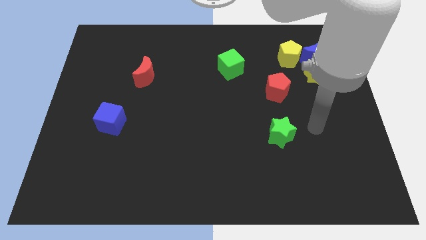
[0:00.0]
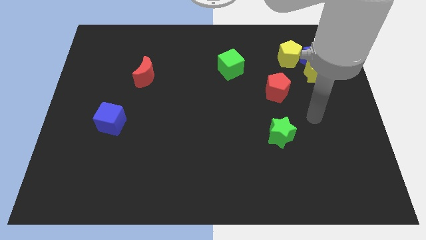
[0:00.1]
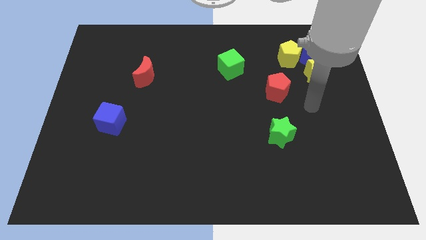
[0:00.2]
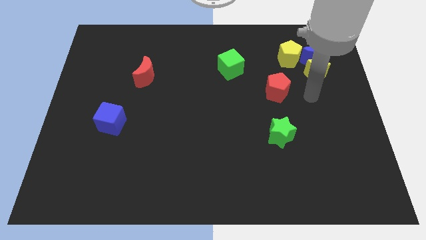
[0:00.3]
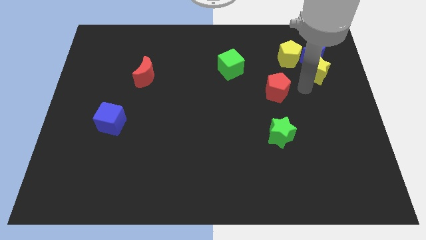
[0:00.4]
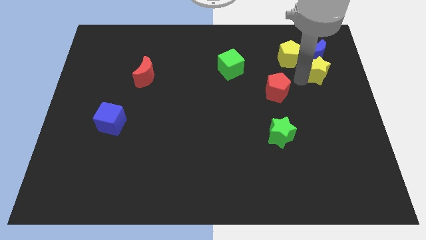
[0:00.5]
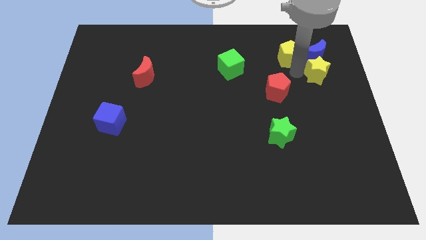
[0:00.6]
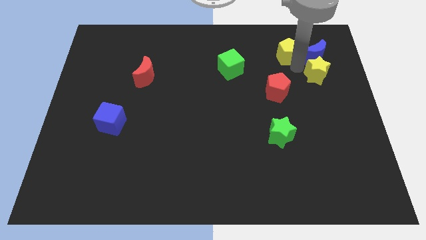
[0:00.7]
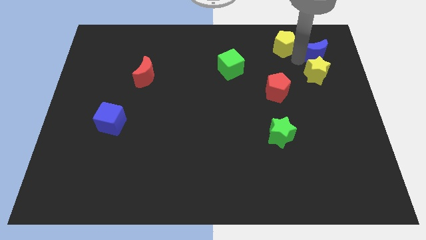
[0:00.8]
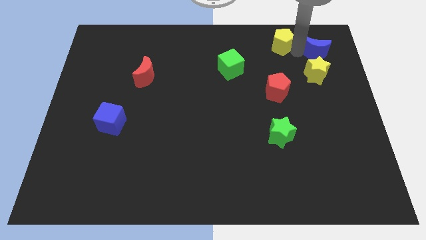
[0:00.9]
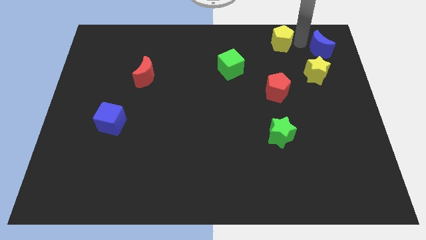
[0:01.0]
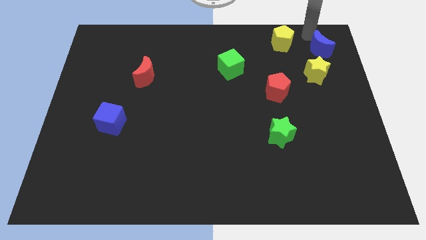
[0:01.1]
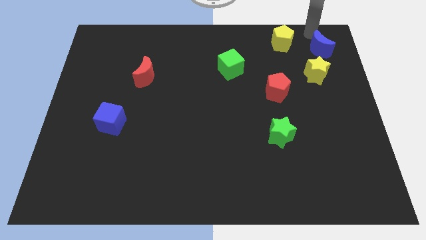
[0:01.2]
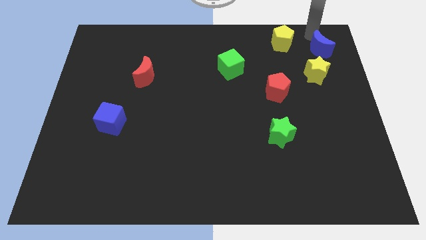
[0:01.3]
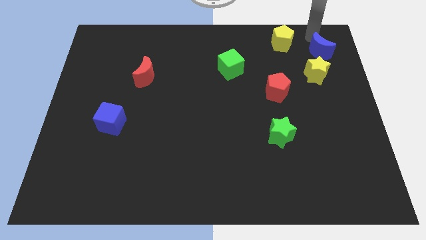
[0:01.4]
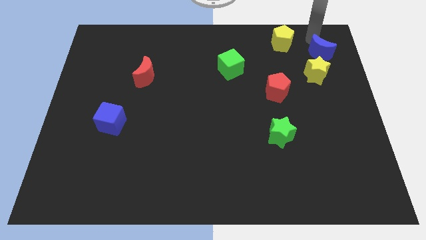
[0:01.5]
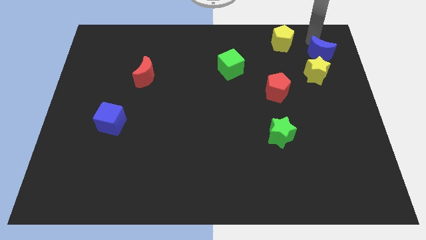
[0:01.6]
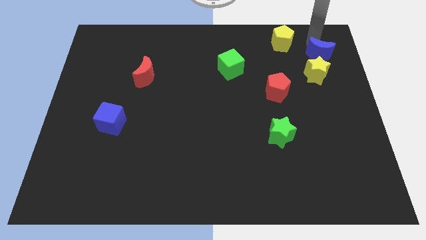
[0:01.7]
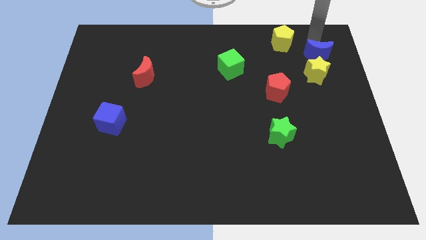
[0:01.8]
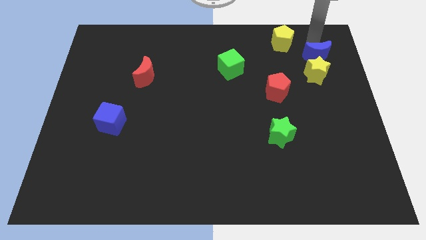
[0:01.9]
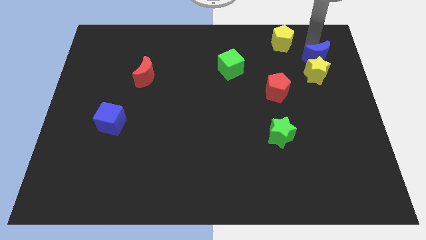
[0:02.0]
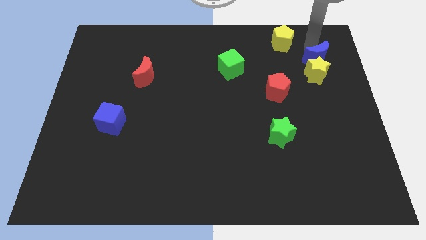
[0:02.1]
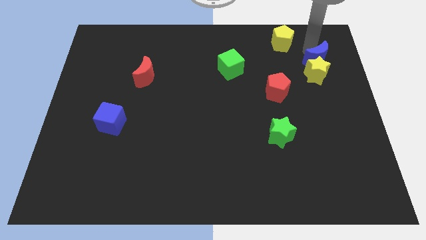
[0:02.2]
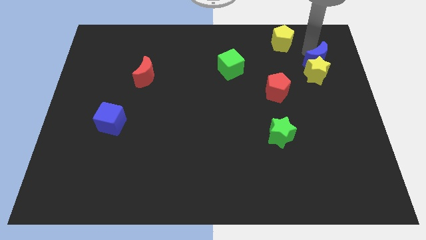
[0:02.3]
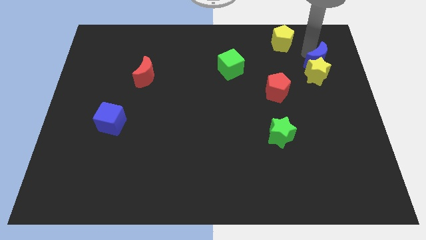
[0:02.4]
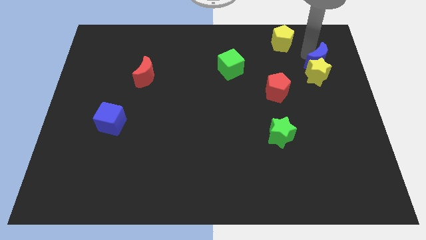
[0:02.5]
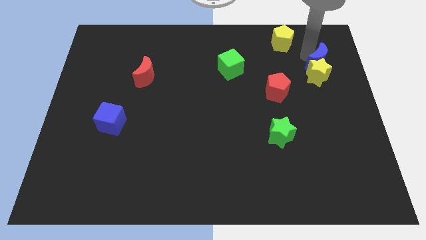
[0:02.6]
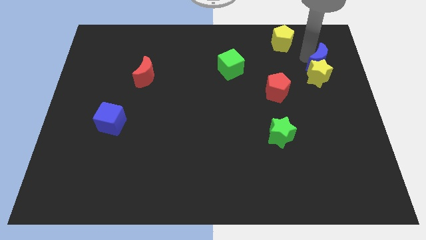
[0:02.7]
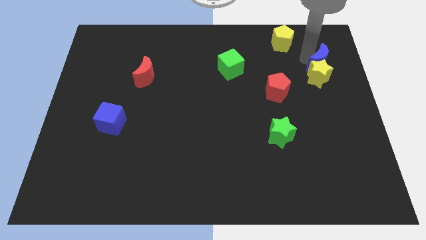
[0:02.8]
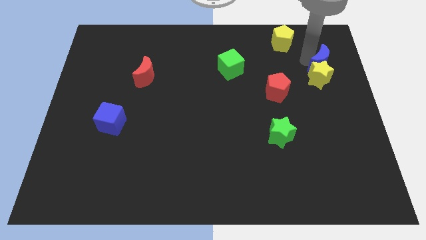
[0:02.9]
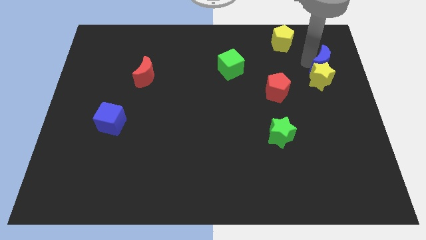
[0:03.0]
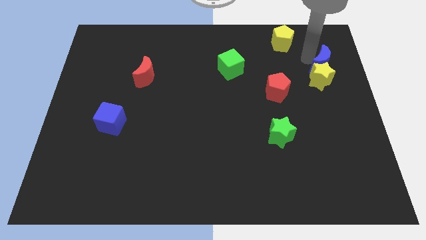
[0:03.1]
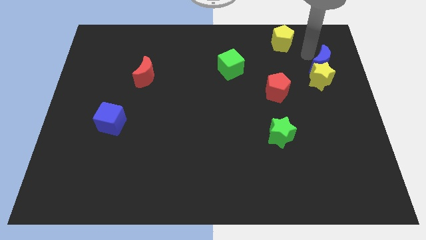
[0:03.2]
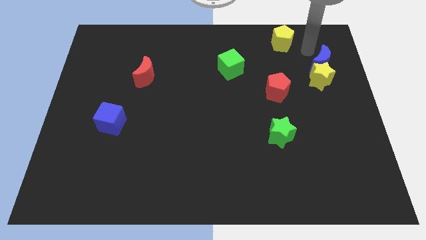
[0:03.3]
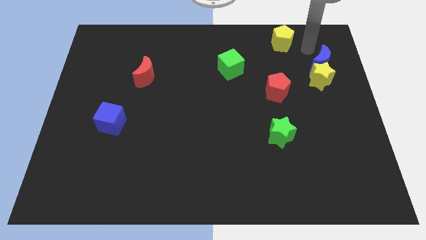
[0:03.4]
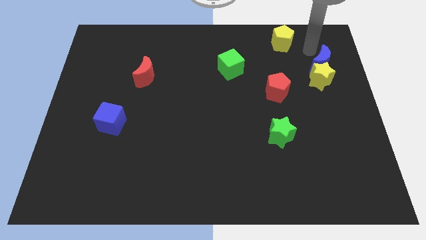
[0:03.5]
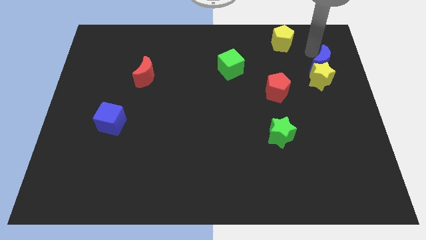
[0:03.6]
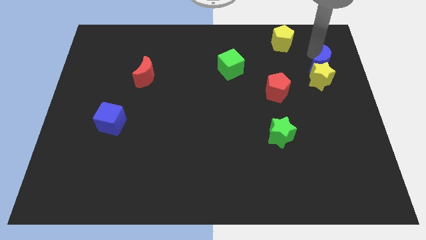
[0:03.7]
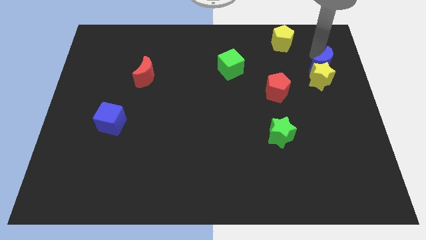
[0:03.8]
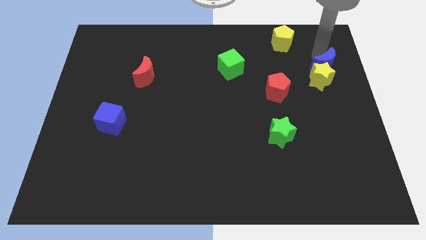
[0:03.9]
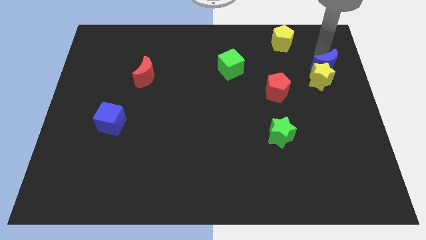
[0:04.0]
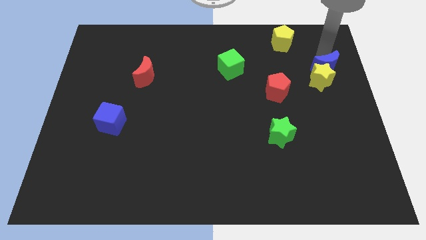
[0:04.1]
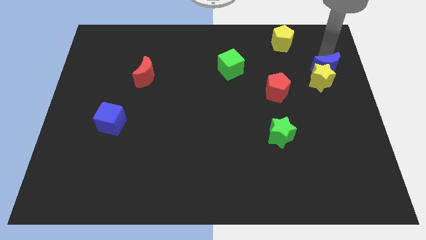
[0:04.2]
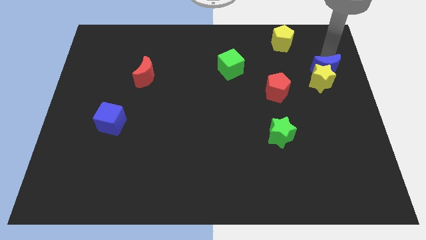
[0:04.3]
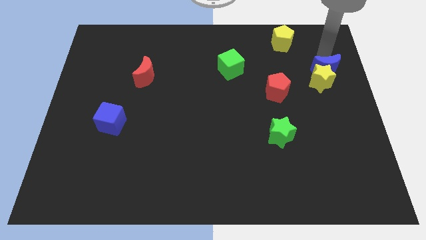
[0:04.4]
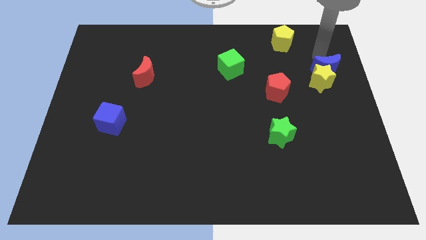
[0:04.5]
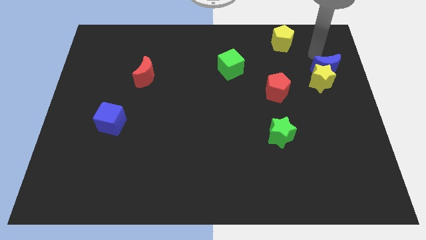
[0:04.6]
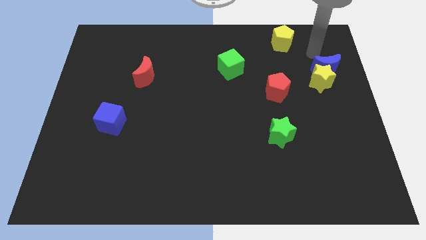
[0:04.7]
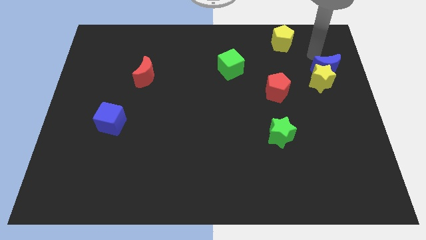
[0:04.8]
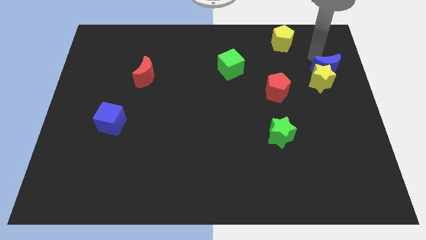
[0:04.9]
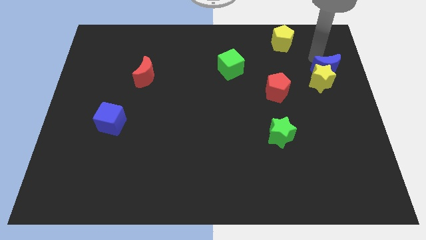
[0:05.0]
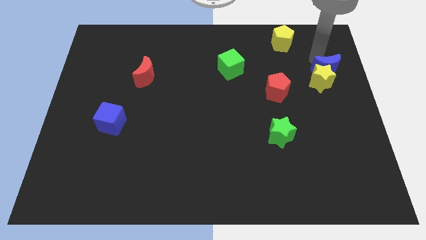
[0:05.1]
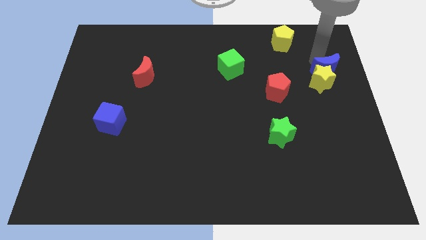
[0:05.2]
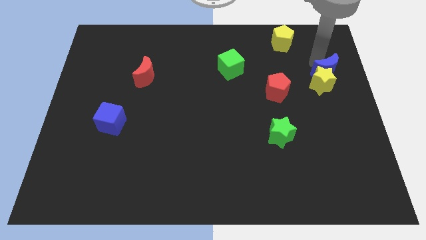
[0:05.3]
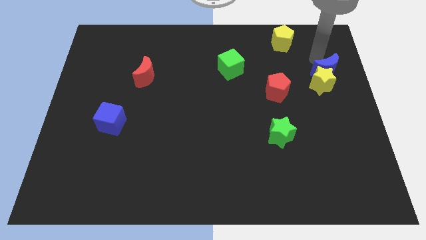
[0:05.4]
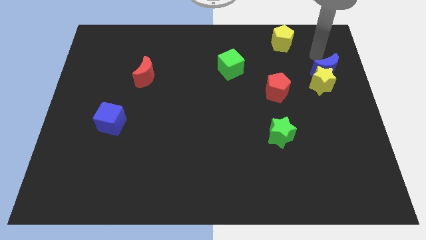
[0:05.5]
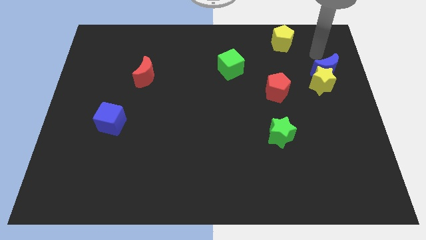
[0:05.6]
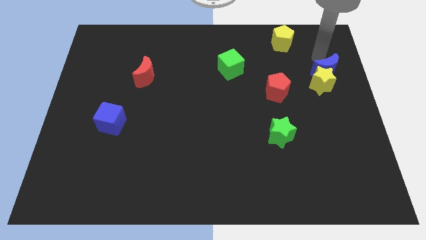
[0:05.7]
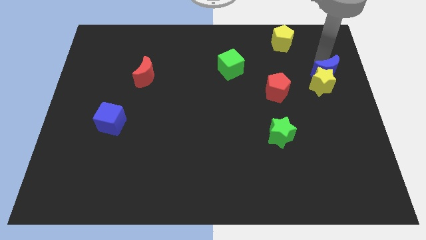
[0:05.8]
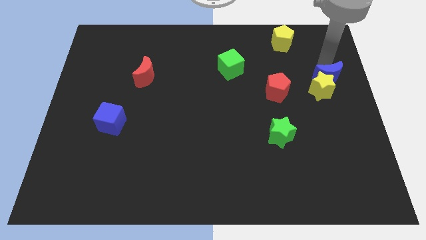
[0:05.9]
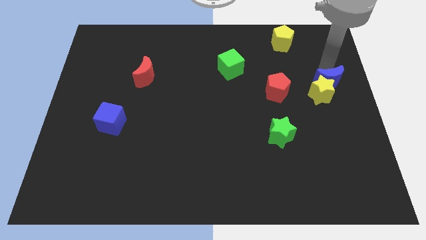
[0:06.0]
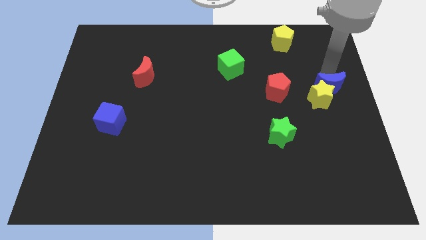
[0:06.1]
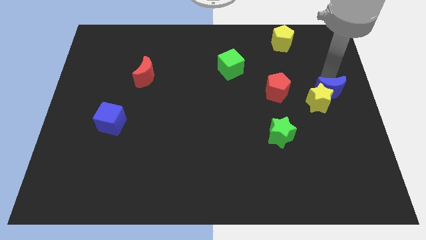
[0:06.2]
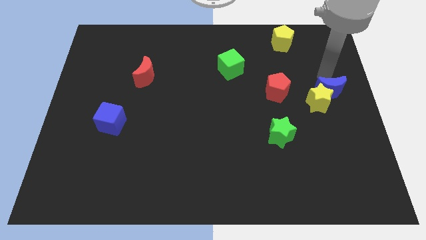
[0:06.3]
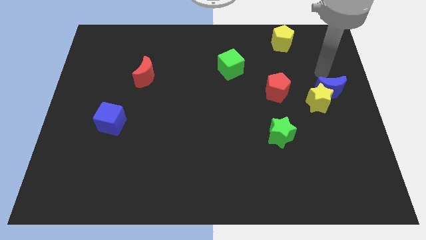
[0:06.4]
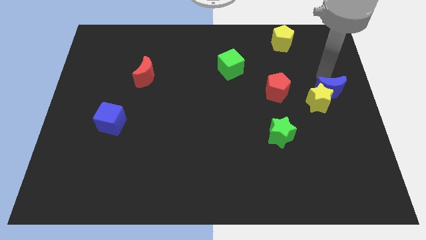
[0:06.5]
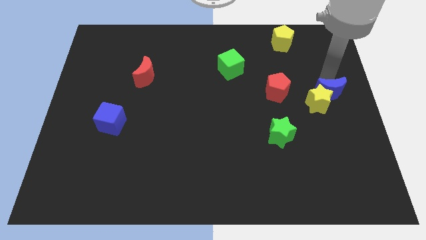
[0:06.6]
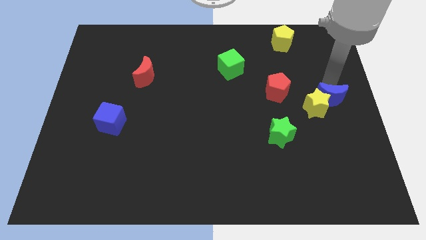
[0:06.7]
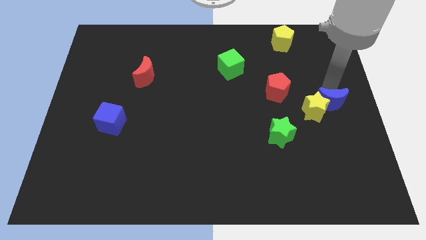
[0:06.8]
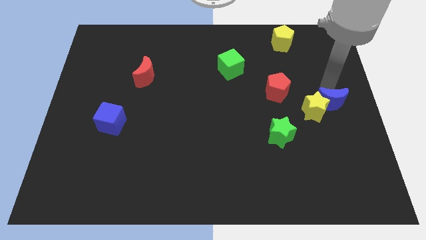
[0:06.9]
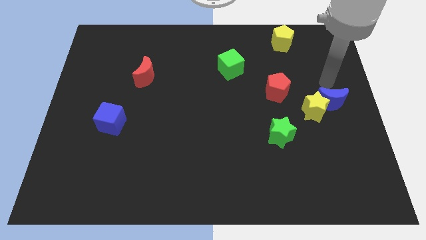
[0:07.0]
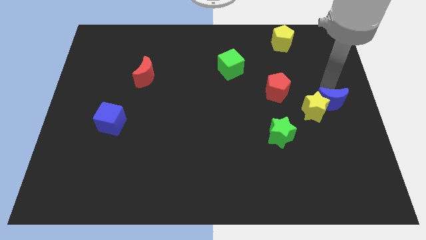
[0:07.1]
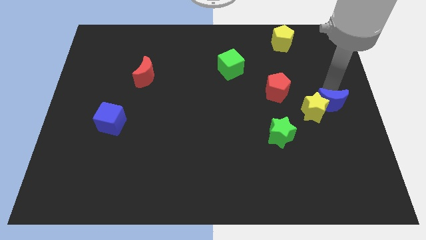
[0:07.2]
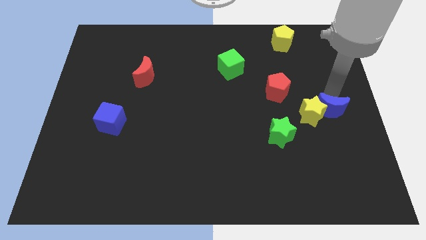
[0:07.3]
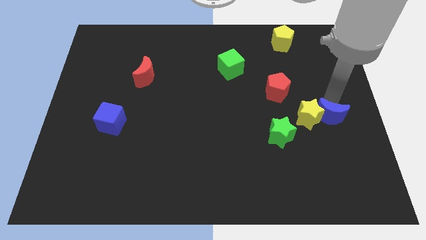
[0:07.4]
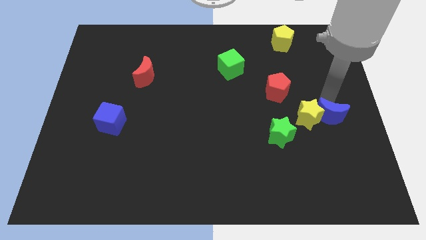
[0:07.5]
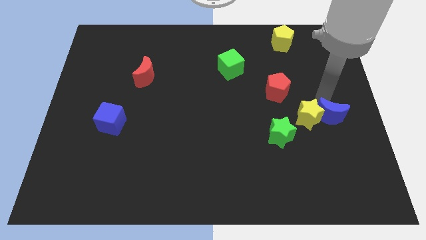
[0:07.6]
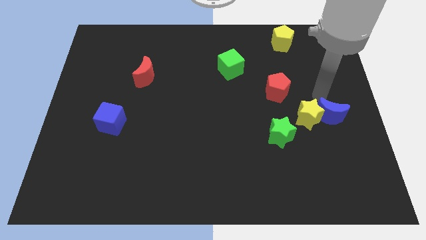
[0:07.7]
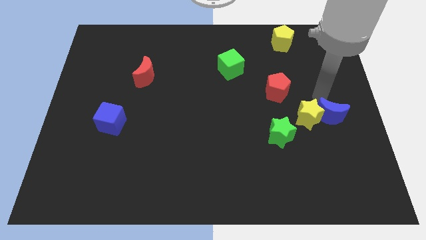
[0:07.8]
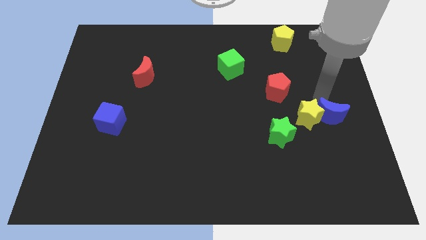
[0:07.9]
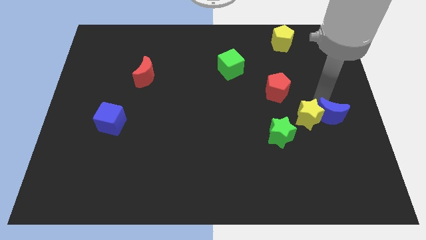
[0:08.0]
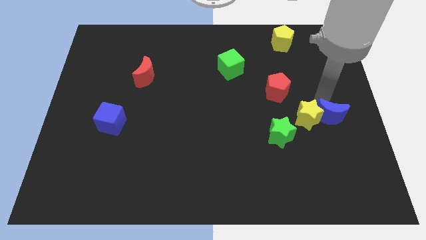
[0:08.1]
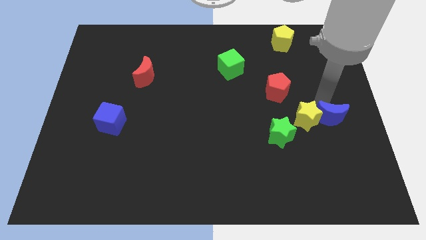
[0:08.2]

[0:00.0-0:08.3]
slide the blue moon downwards
